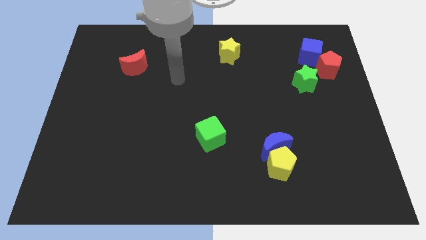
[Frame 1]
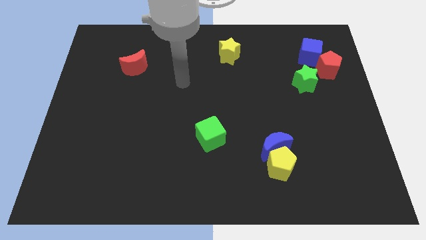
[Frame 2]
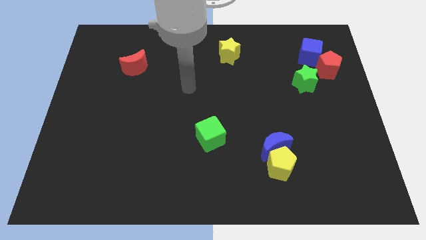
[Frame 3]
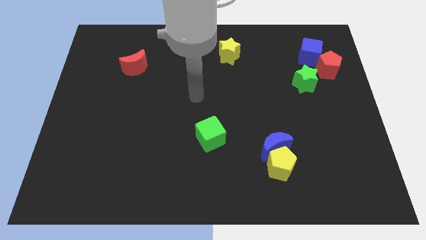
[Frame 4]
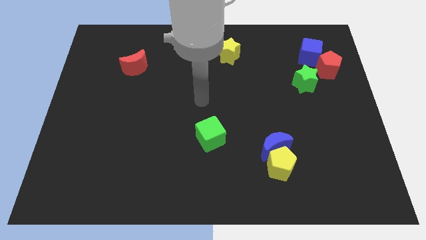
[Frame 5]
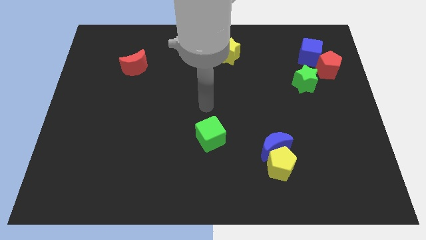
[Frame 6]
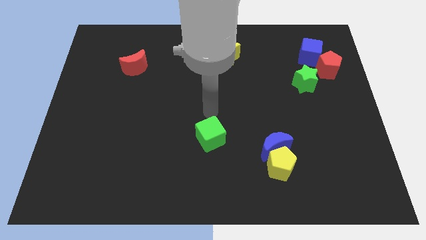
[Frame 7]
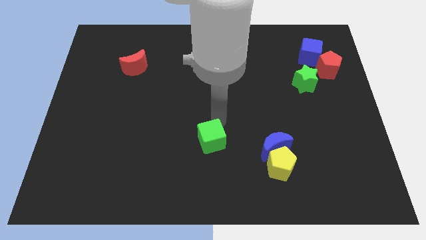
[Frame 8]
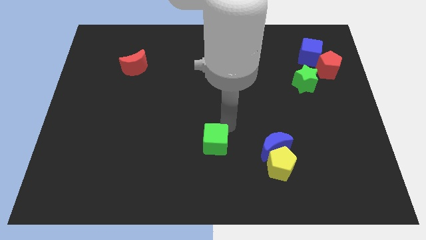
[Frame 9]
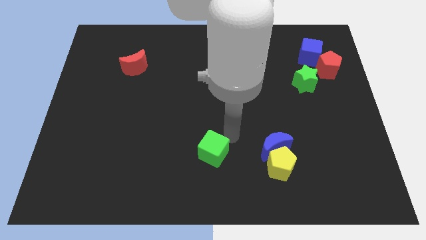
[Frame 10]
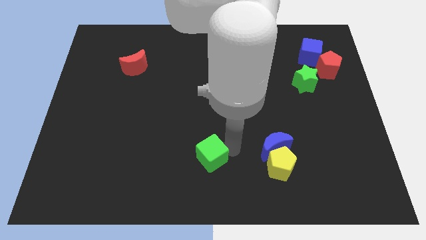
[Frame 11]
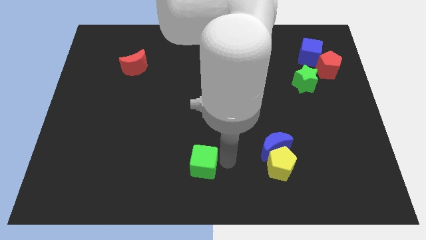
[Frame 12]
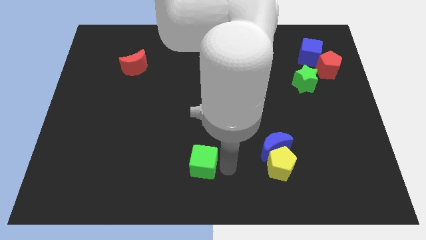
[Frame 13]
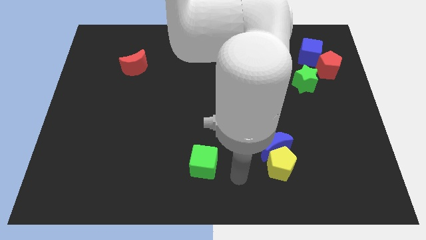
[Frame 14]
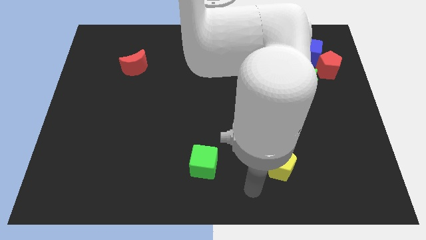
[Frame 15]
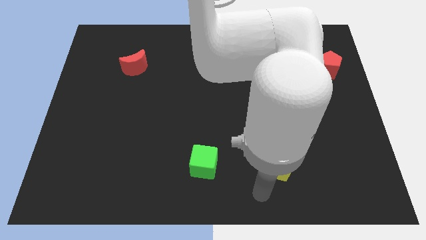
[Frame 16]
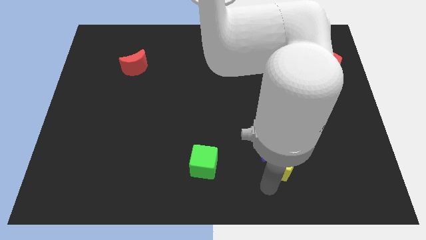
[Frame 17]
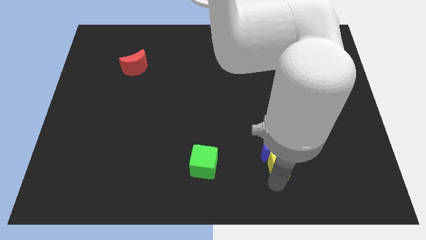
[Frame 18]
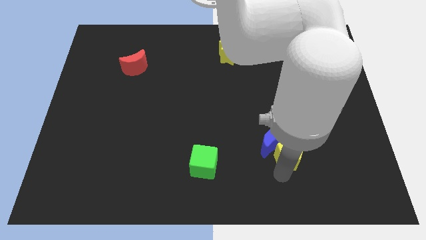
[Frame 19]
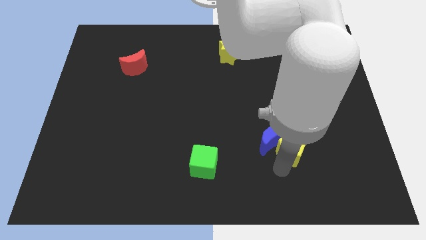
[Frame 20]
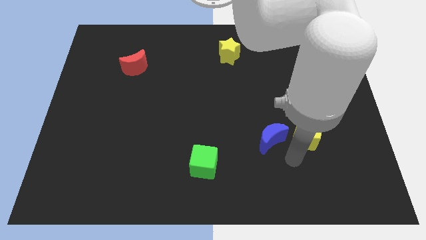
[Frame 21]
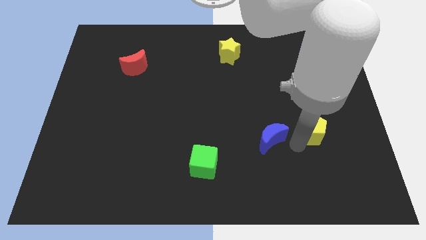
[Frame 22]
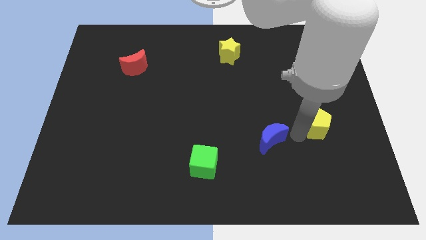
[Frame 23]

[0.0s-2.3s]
pull the blue moon apart from the yellow pentagon

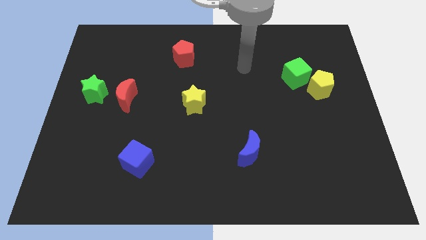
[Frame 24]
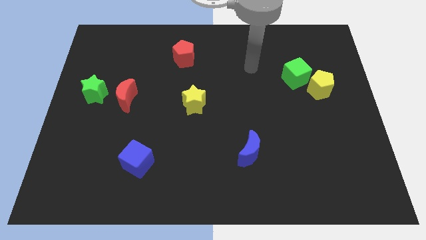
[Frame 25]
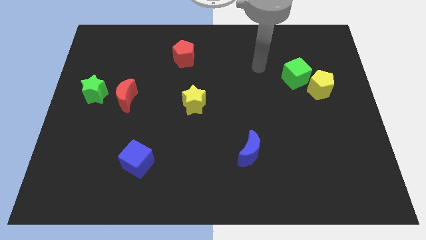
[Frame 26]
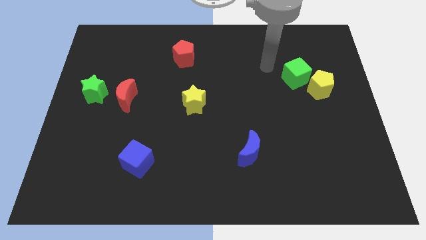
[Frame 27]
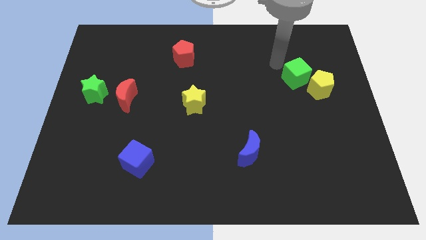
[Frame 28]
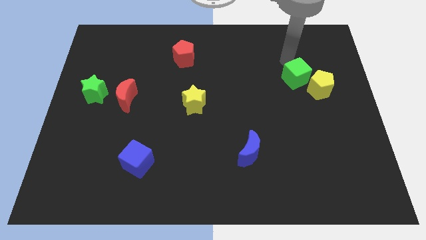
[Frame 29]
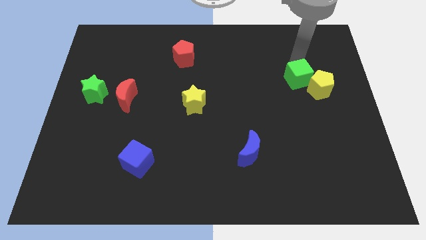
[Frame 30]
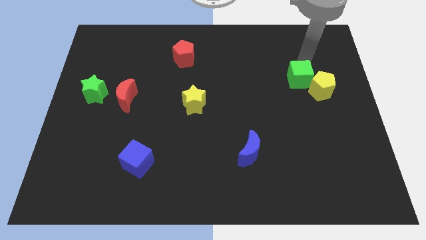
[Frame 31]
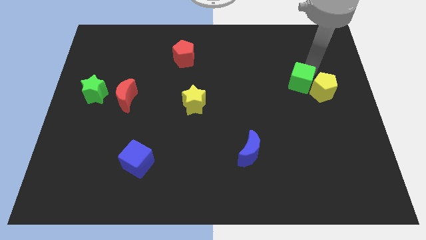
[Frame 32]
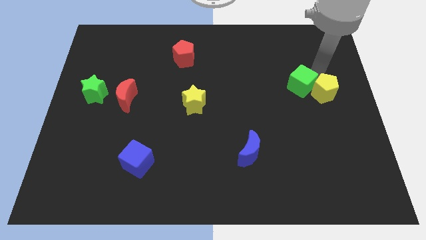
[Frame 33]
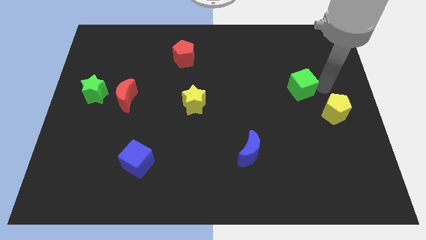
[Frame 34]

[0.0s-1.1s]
pull the green cube apart from the yellow pentagon

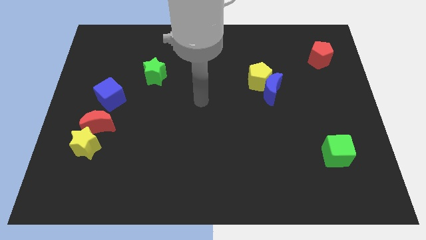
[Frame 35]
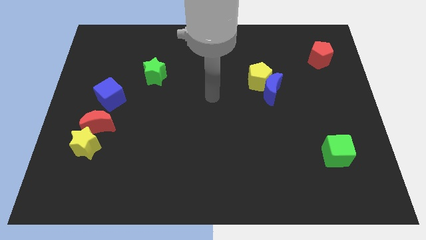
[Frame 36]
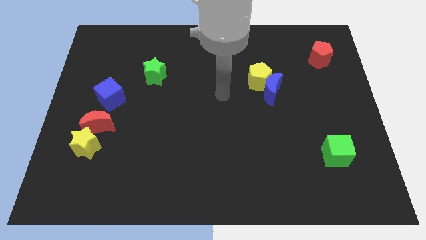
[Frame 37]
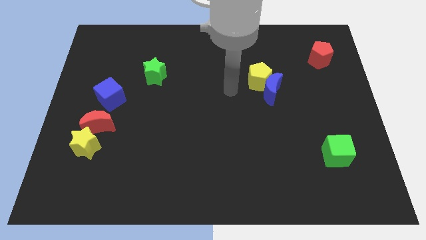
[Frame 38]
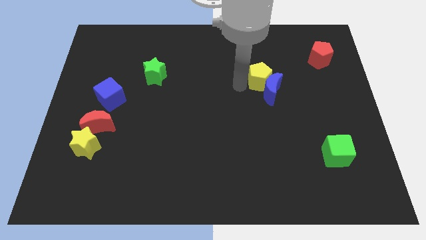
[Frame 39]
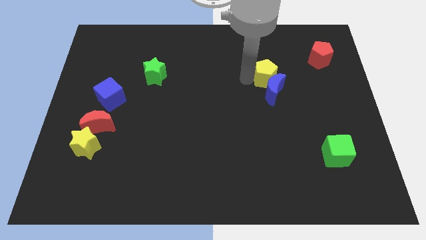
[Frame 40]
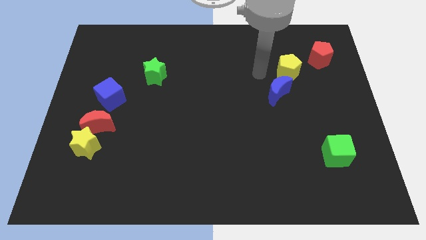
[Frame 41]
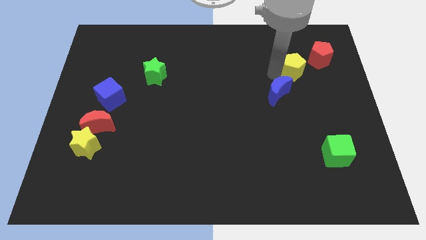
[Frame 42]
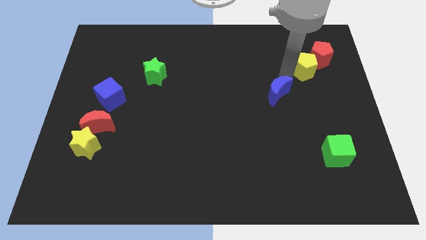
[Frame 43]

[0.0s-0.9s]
move the blue moon away from the yellow pentagon

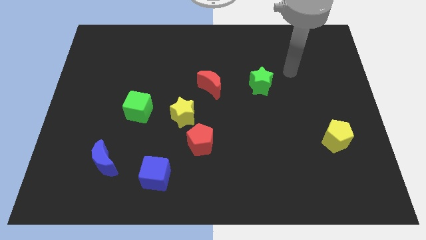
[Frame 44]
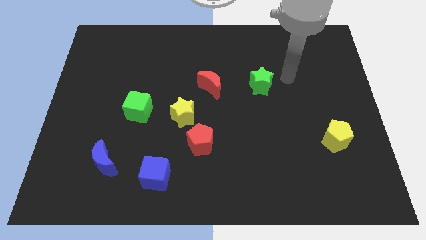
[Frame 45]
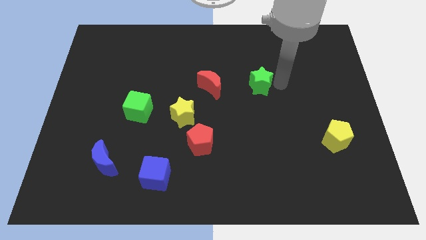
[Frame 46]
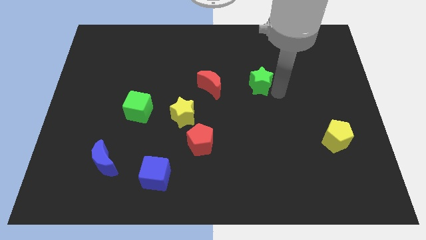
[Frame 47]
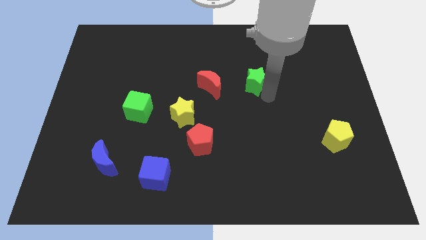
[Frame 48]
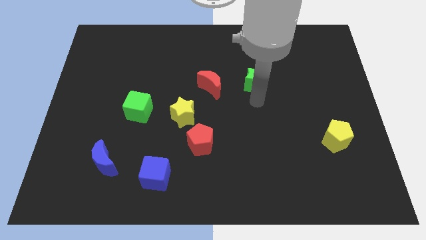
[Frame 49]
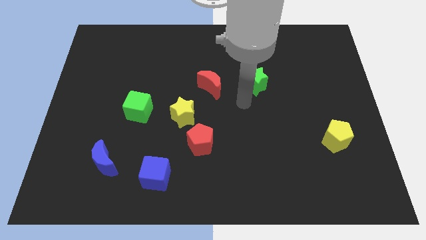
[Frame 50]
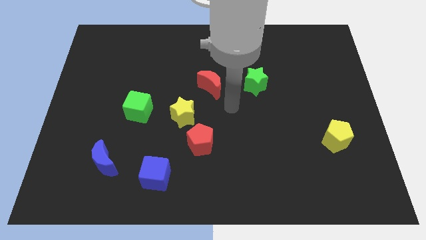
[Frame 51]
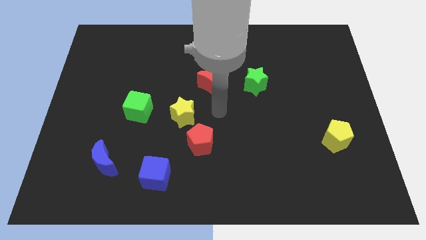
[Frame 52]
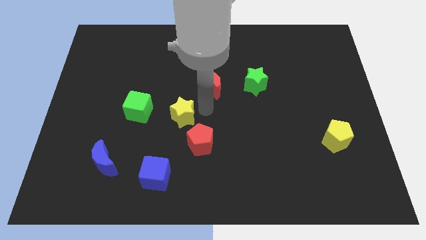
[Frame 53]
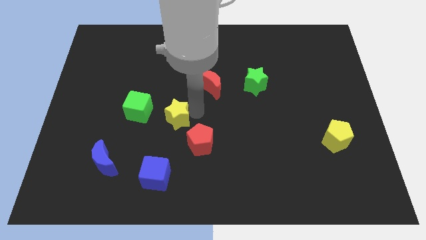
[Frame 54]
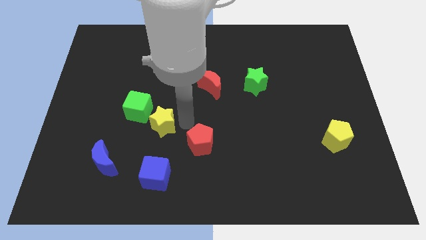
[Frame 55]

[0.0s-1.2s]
separate the red pentagon from the yellow star

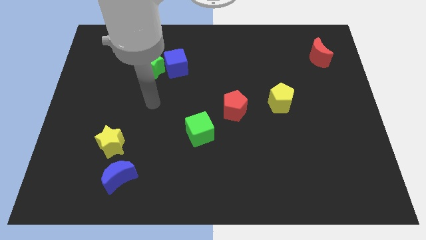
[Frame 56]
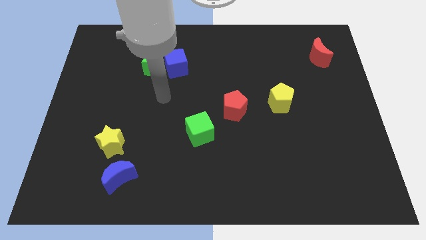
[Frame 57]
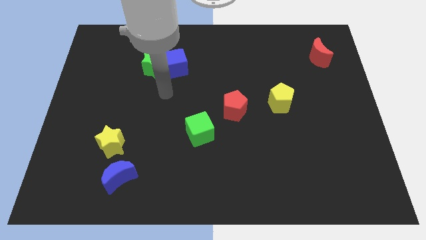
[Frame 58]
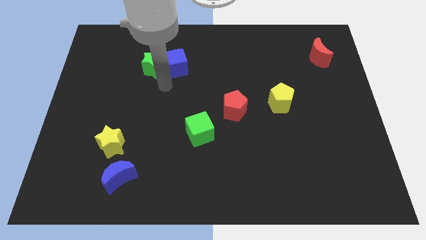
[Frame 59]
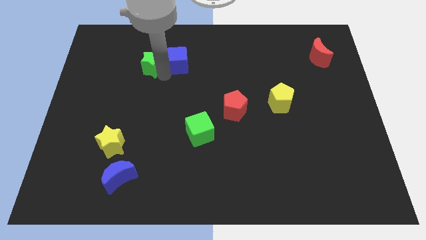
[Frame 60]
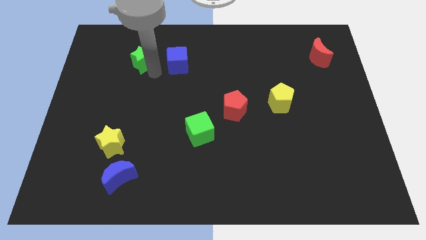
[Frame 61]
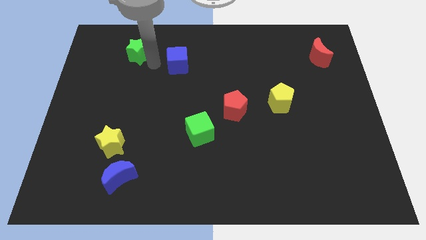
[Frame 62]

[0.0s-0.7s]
separate the blue cube from the green star

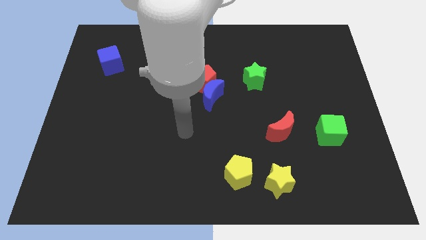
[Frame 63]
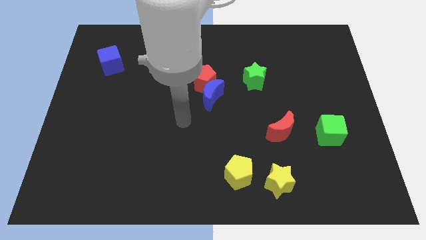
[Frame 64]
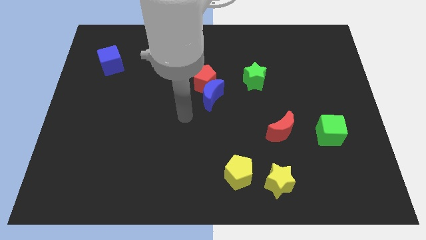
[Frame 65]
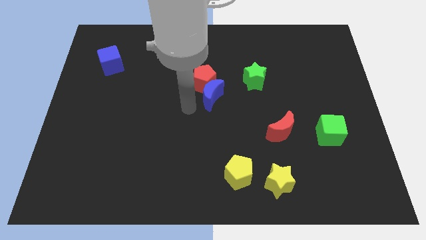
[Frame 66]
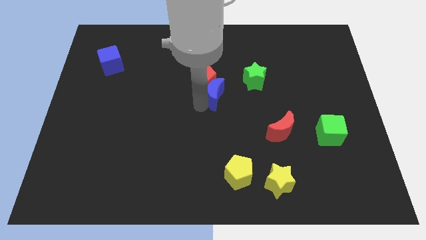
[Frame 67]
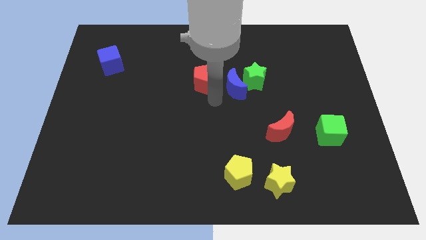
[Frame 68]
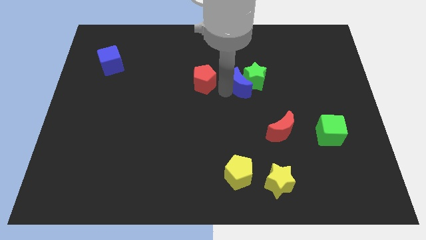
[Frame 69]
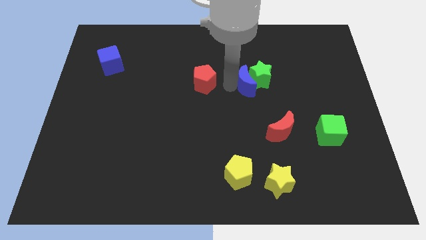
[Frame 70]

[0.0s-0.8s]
separate the red pentagon from the blue moon

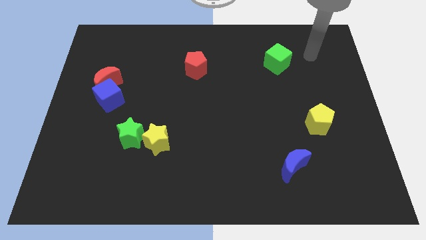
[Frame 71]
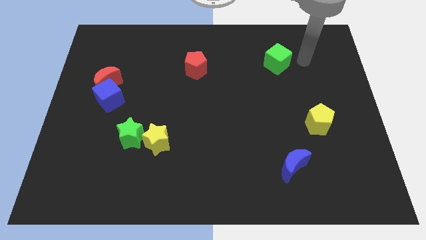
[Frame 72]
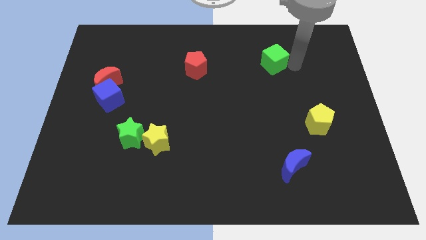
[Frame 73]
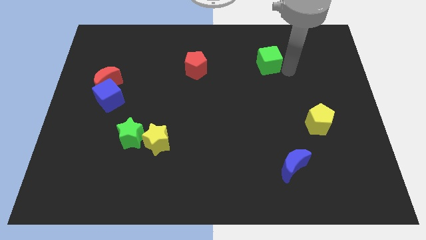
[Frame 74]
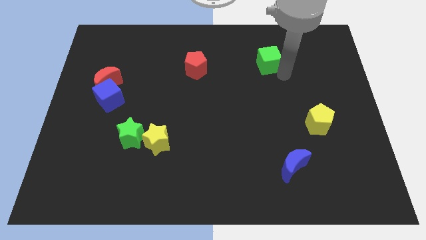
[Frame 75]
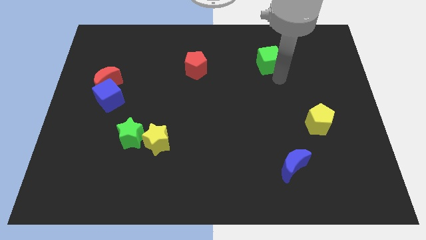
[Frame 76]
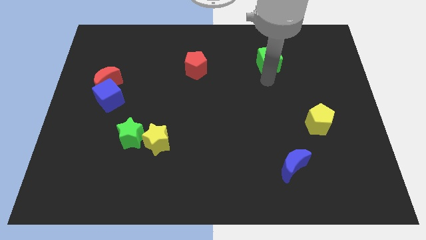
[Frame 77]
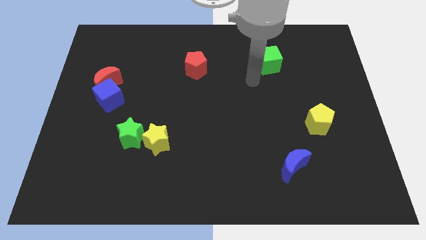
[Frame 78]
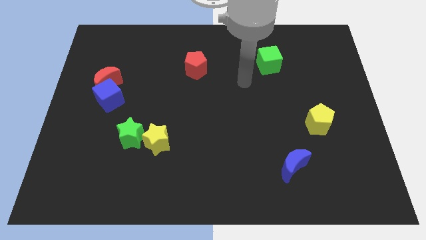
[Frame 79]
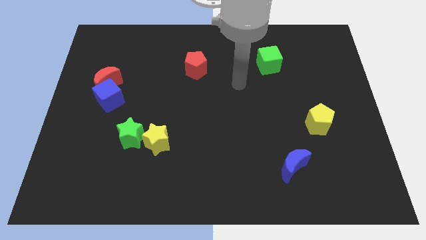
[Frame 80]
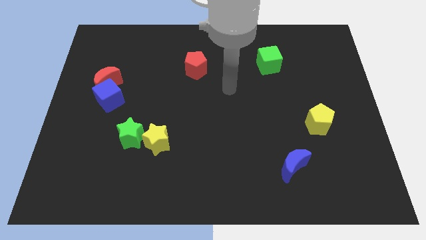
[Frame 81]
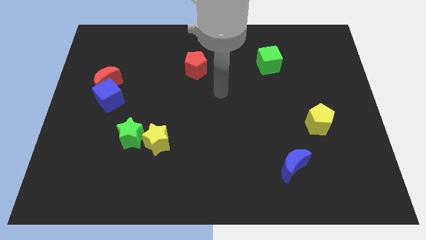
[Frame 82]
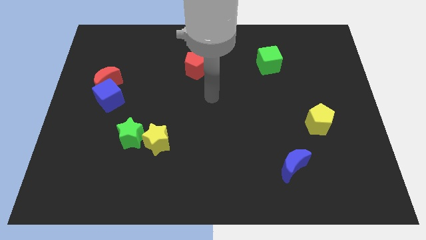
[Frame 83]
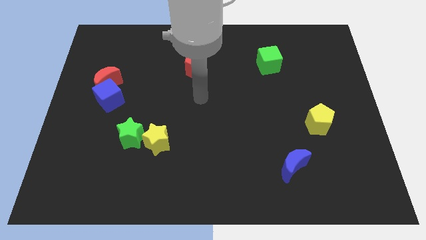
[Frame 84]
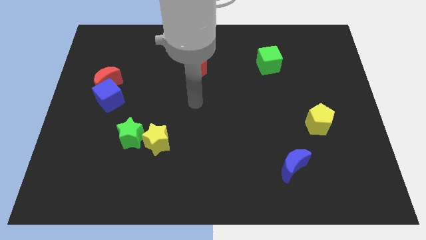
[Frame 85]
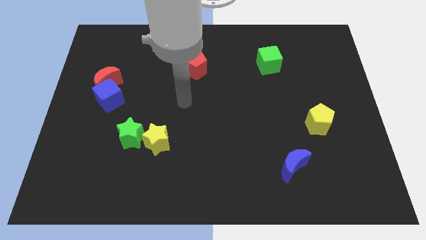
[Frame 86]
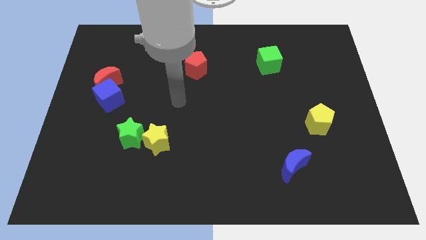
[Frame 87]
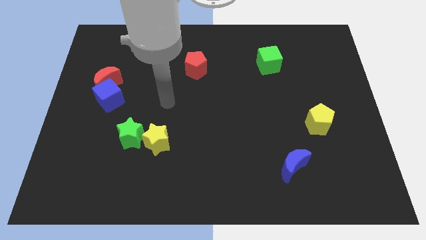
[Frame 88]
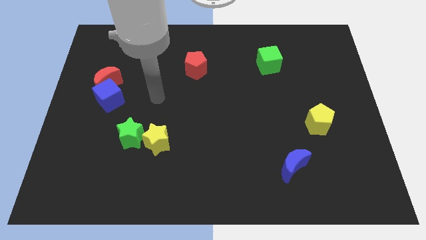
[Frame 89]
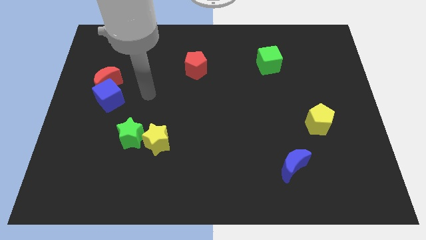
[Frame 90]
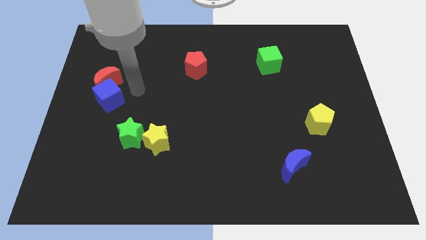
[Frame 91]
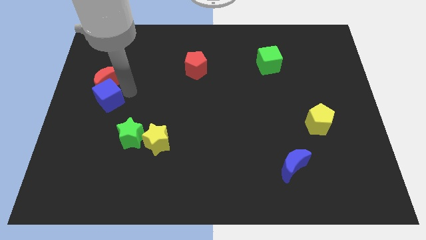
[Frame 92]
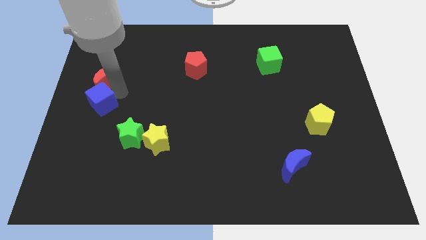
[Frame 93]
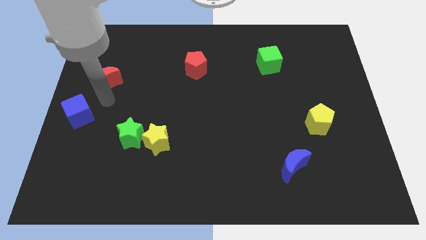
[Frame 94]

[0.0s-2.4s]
pull the red moon apart from the blue cube

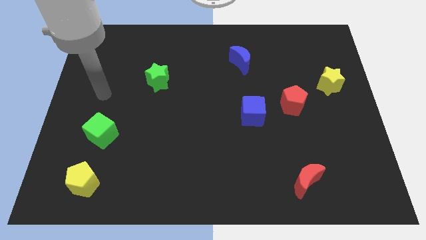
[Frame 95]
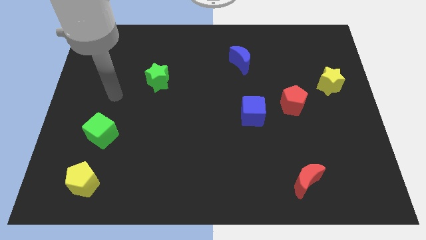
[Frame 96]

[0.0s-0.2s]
pull the red pentagon apart from the blue cube
